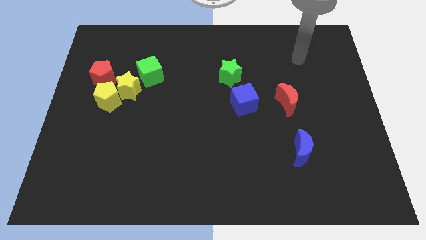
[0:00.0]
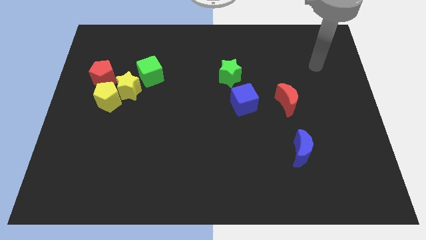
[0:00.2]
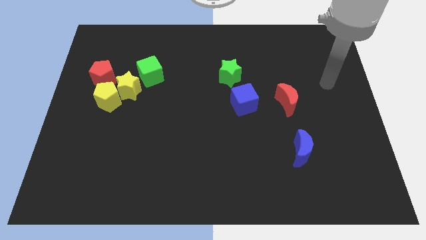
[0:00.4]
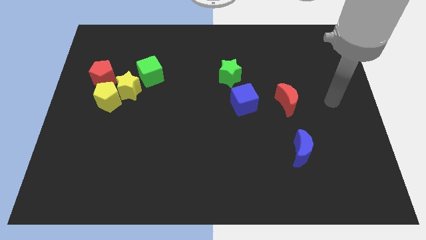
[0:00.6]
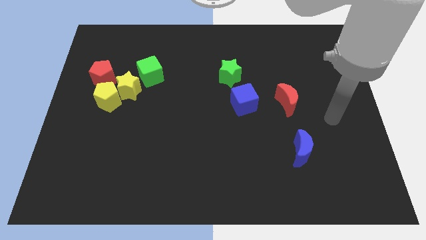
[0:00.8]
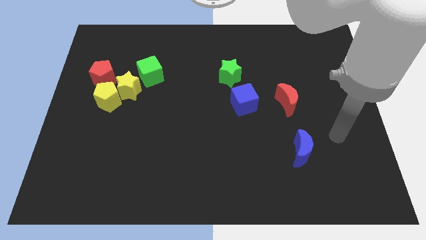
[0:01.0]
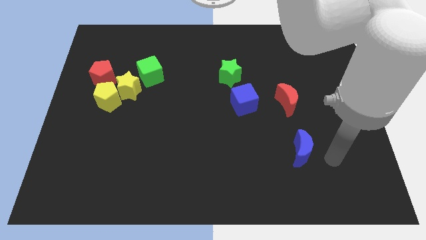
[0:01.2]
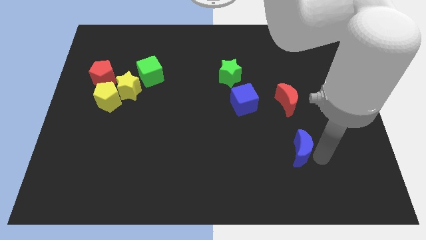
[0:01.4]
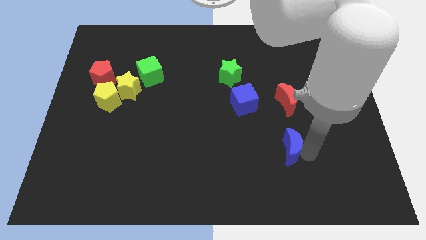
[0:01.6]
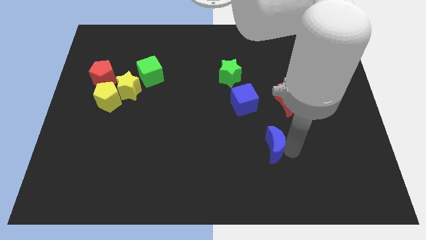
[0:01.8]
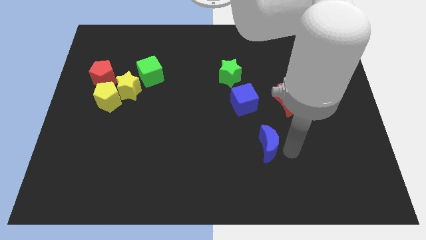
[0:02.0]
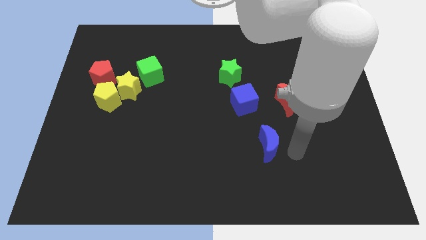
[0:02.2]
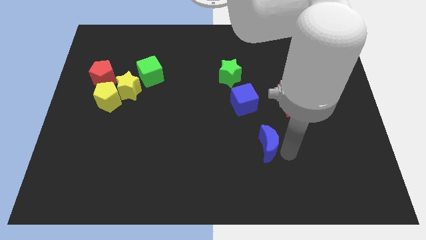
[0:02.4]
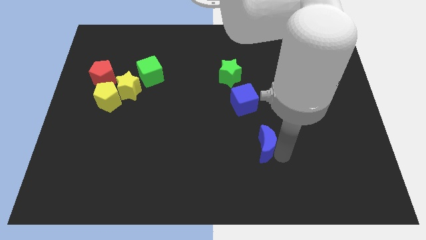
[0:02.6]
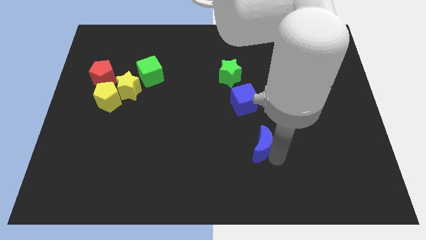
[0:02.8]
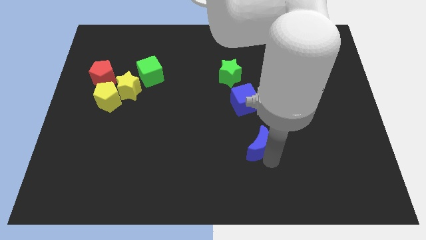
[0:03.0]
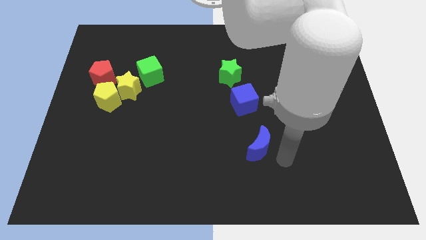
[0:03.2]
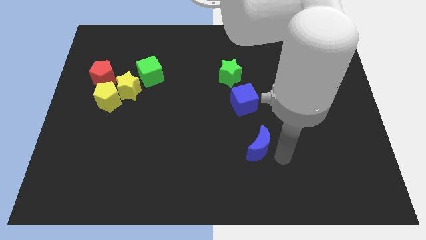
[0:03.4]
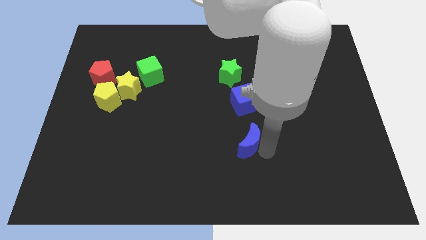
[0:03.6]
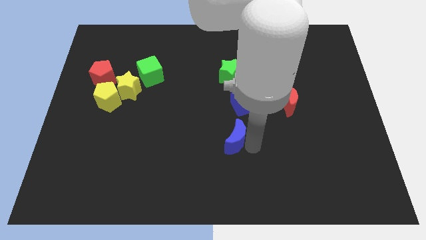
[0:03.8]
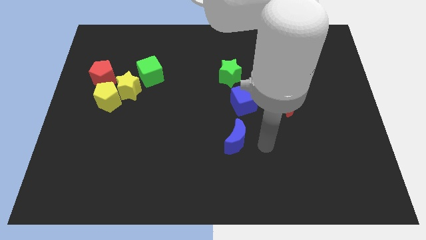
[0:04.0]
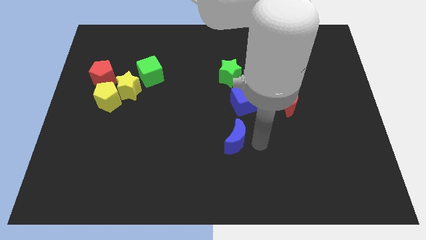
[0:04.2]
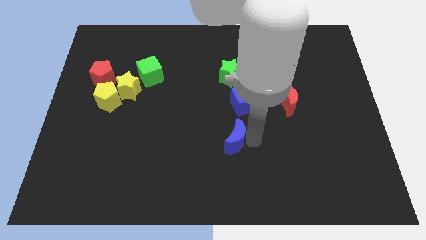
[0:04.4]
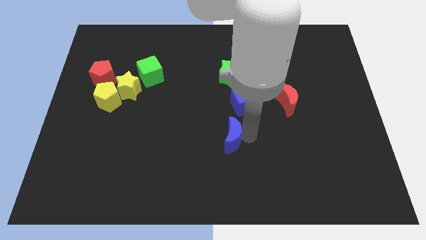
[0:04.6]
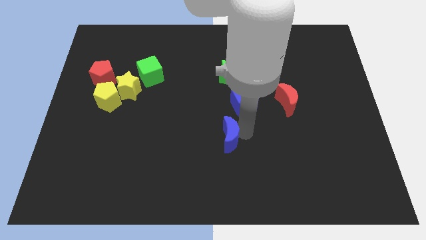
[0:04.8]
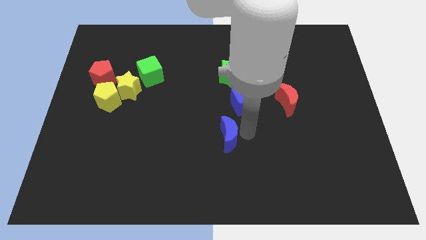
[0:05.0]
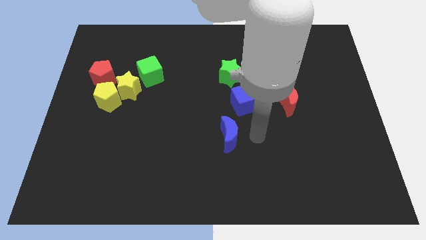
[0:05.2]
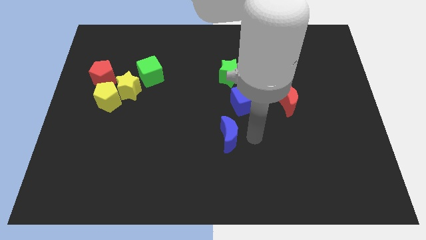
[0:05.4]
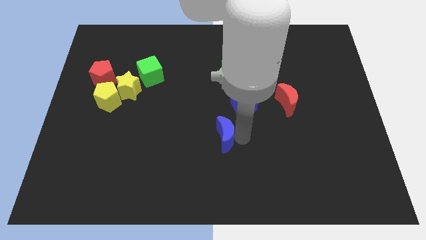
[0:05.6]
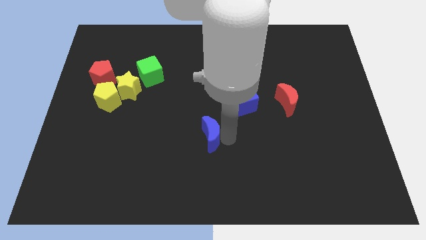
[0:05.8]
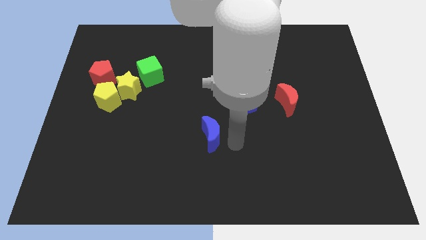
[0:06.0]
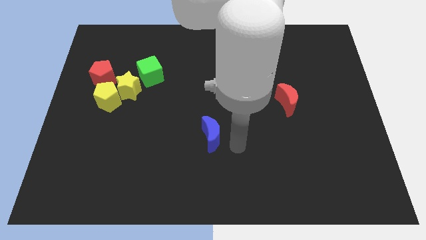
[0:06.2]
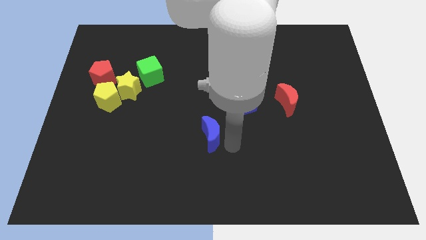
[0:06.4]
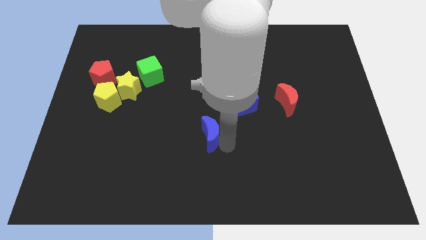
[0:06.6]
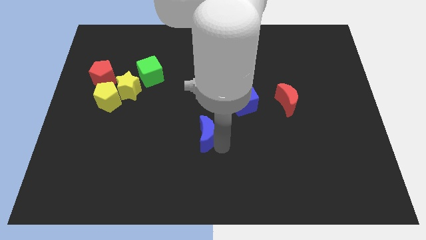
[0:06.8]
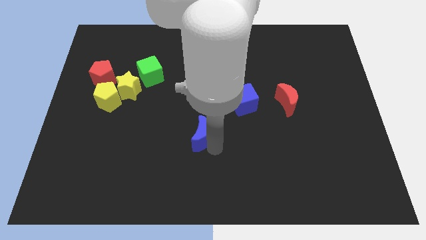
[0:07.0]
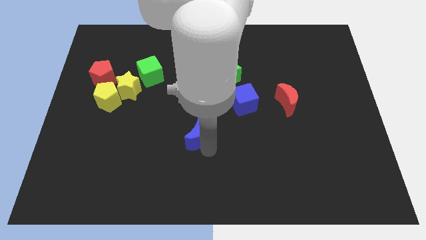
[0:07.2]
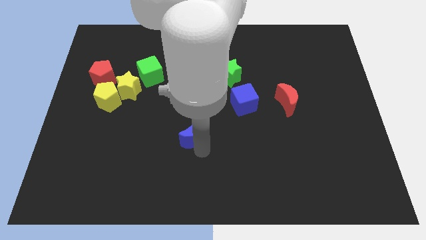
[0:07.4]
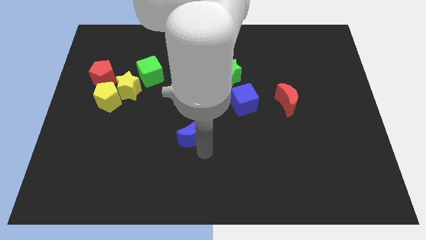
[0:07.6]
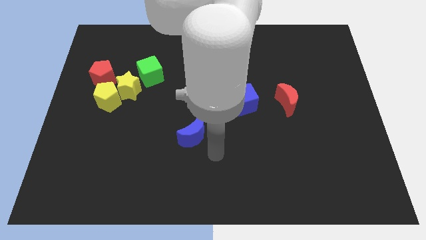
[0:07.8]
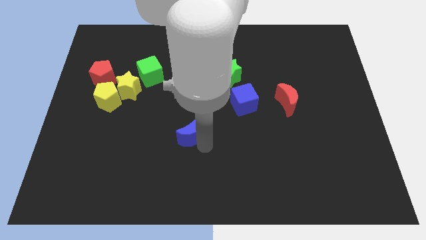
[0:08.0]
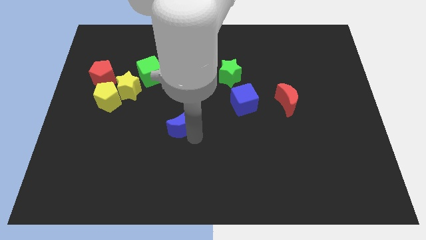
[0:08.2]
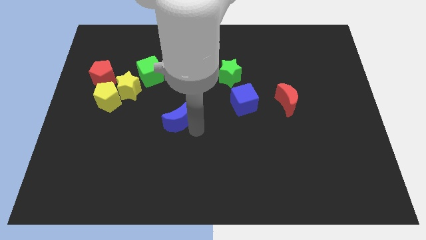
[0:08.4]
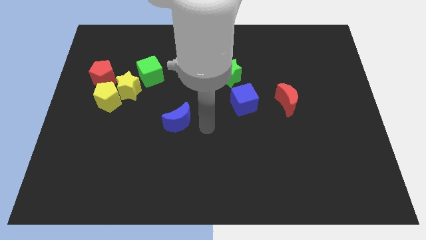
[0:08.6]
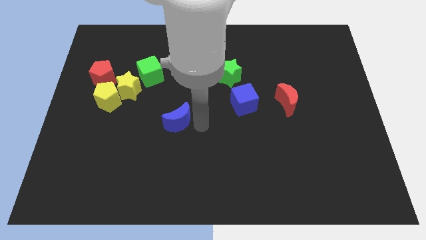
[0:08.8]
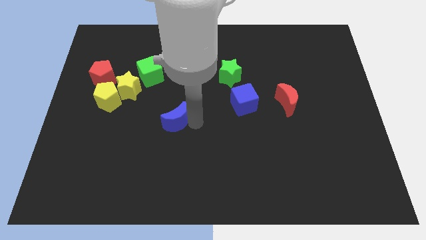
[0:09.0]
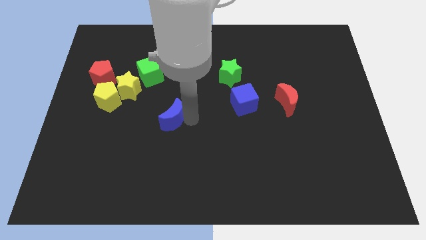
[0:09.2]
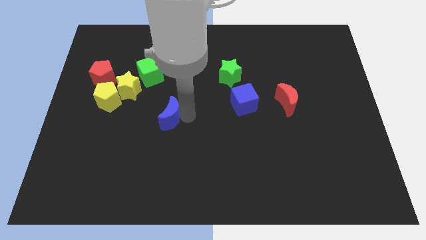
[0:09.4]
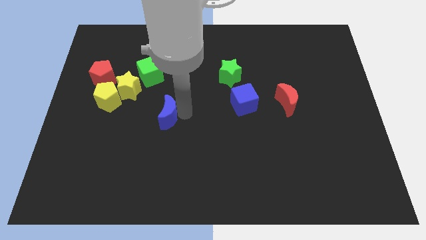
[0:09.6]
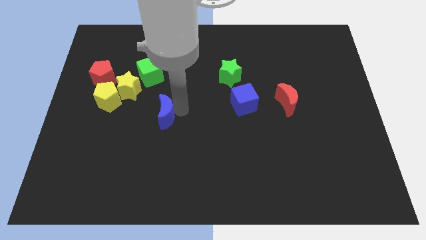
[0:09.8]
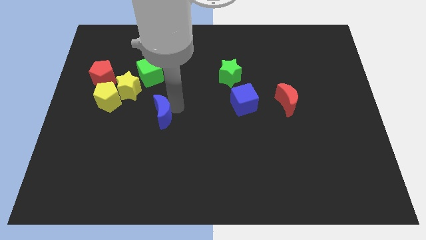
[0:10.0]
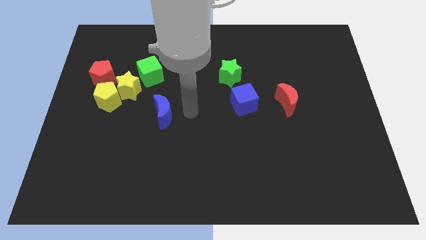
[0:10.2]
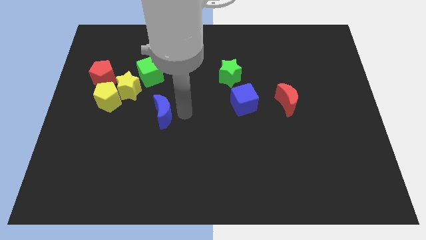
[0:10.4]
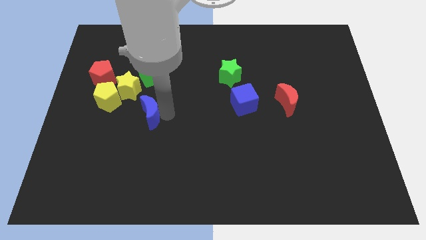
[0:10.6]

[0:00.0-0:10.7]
move the blue moon to the bottom right side of the yellow pentagon
